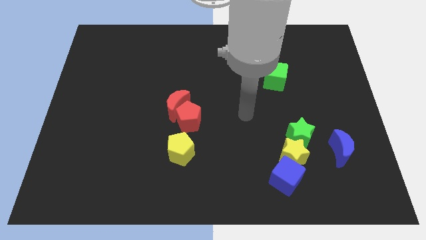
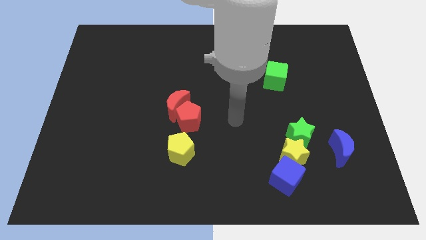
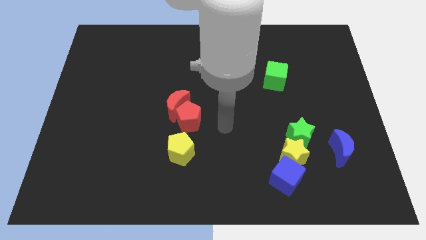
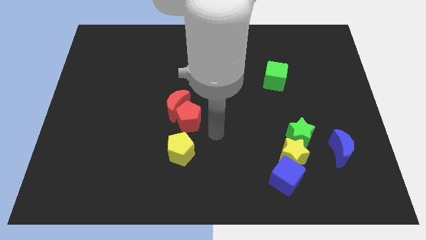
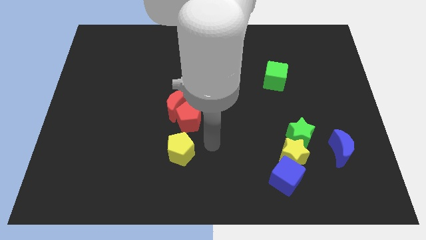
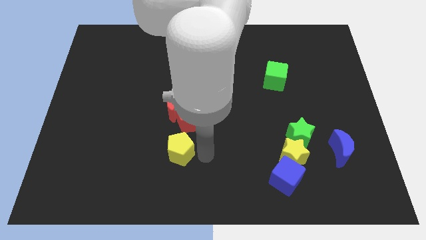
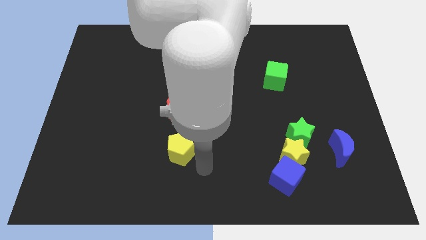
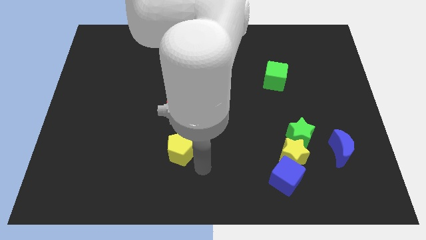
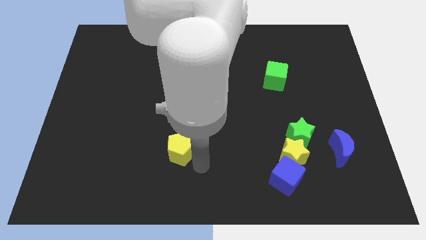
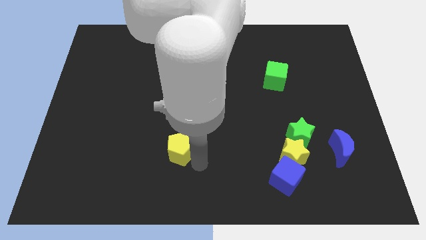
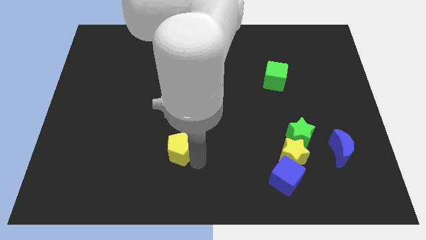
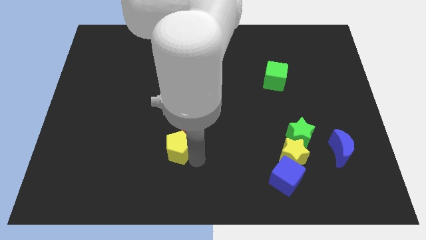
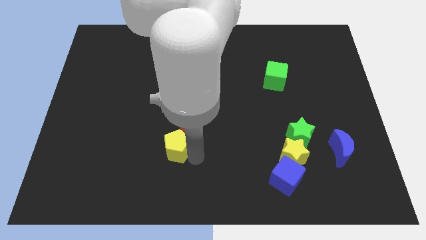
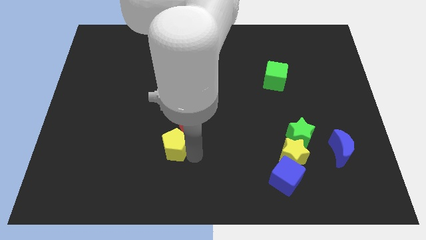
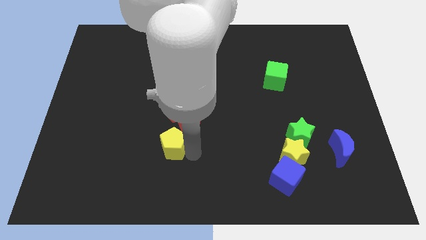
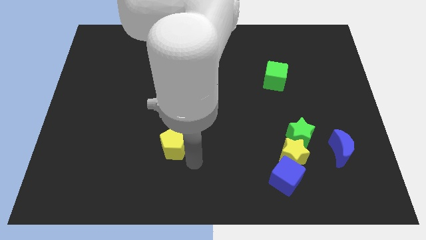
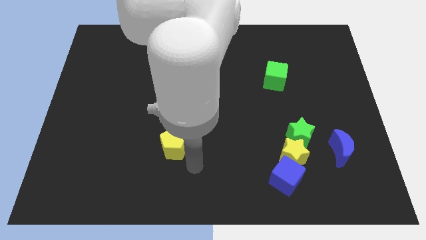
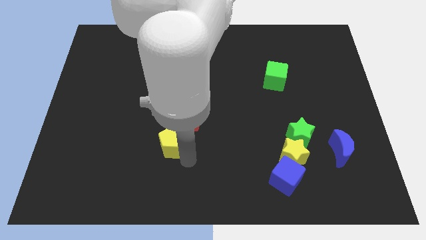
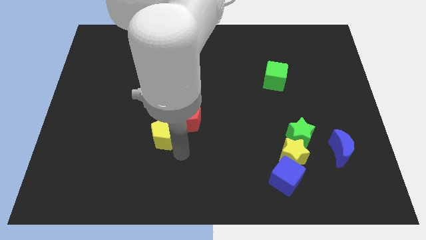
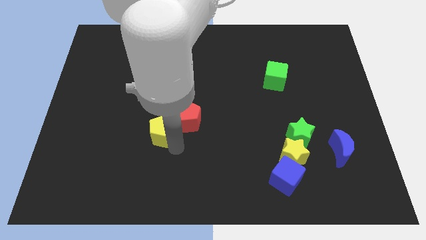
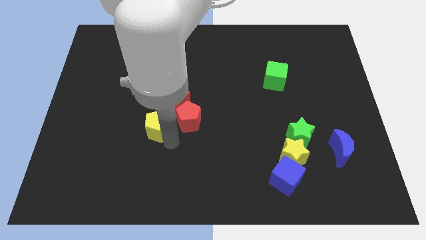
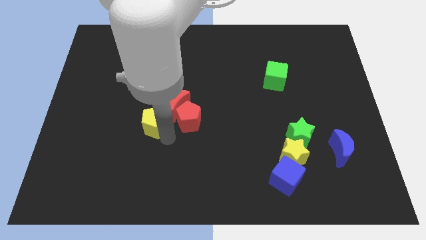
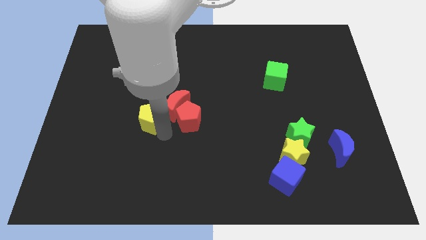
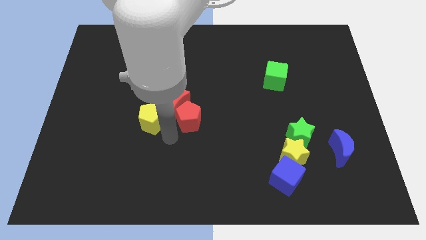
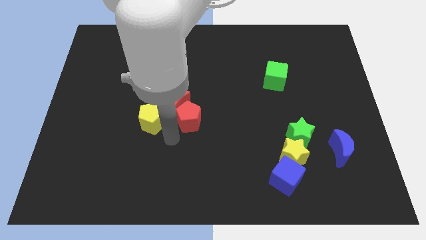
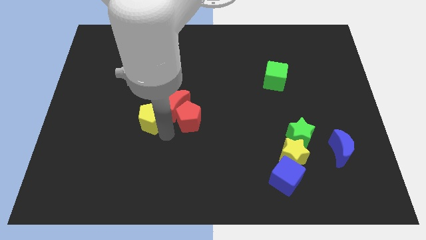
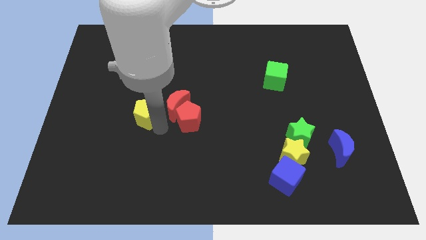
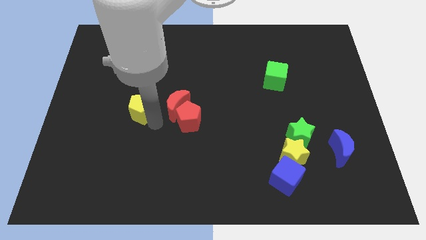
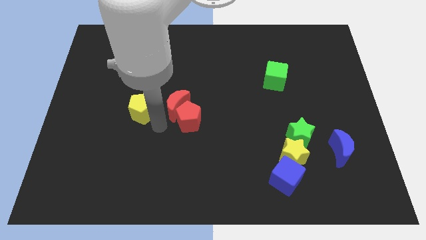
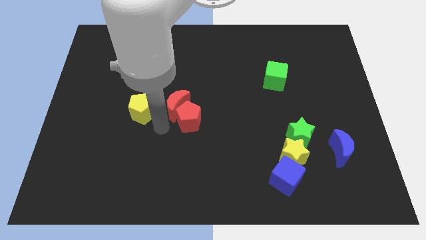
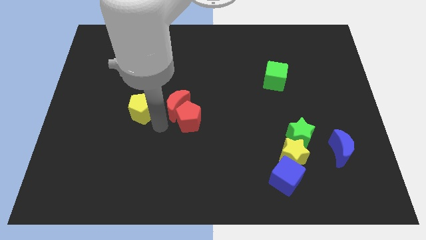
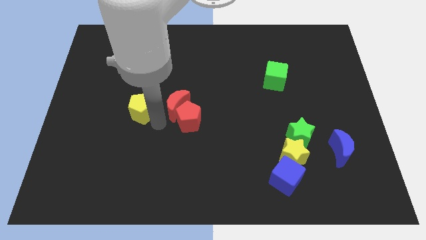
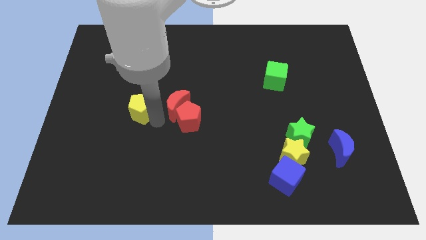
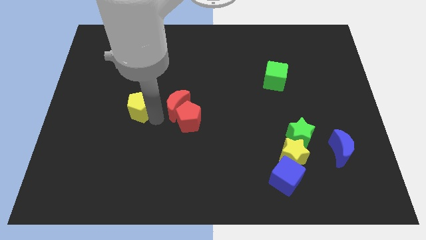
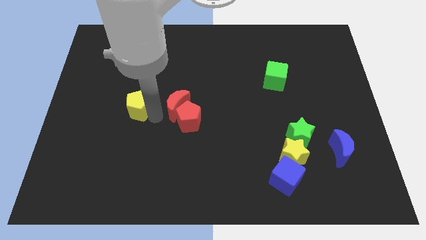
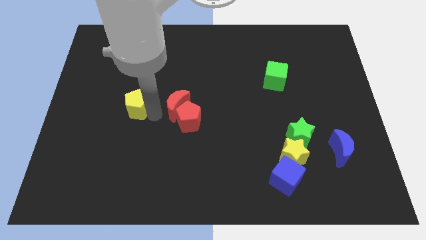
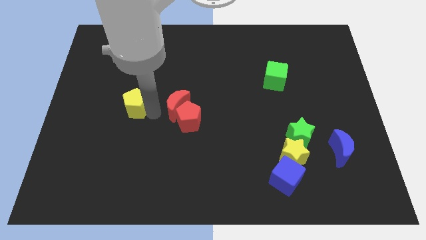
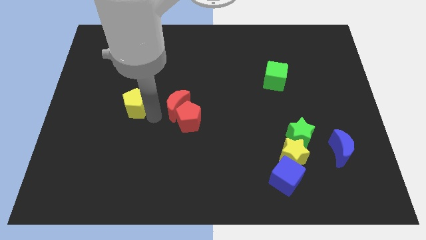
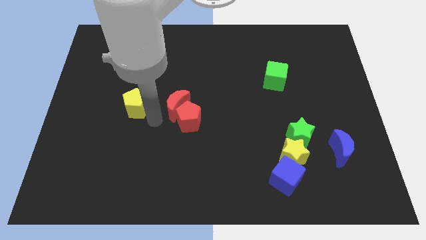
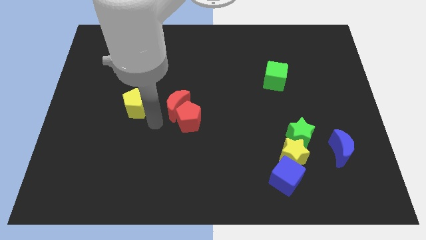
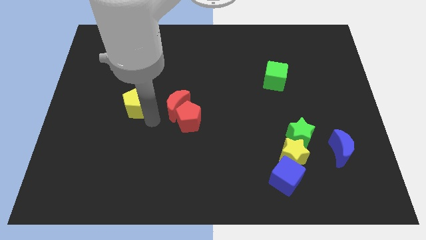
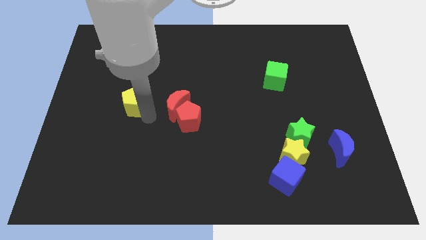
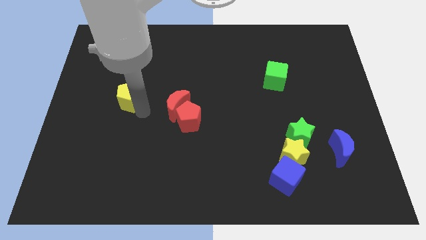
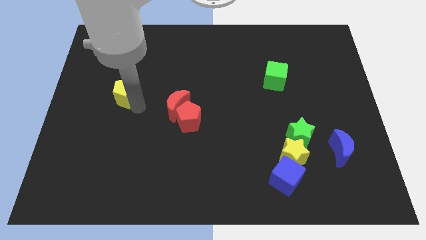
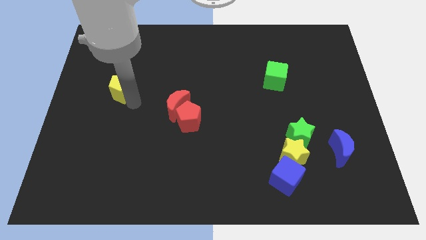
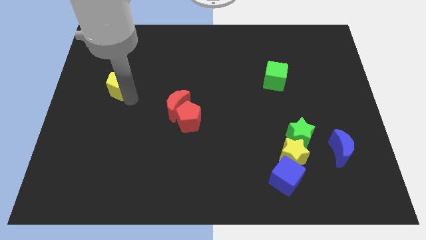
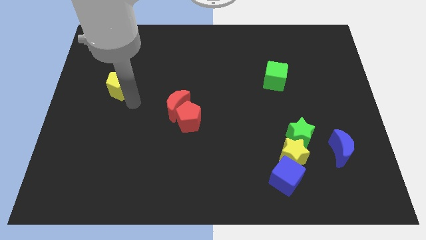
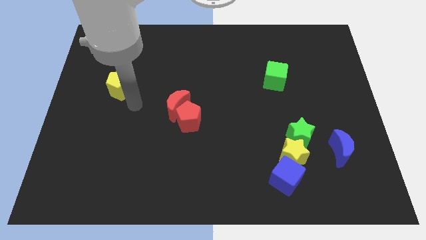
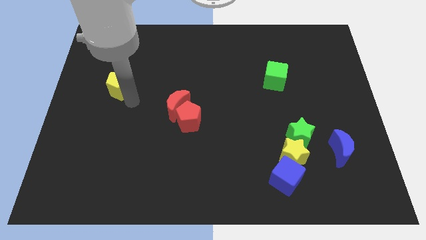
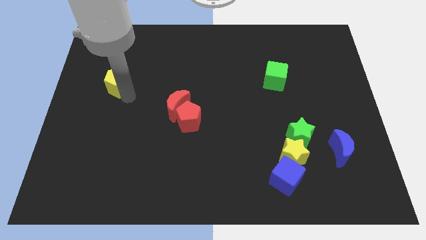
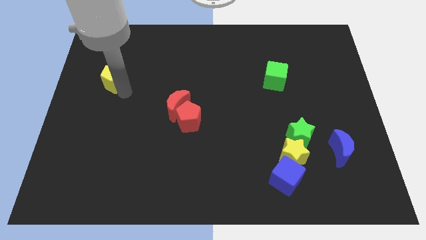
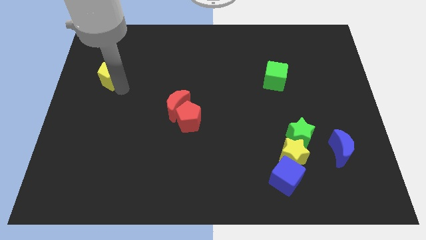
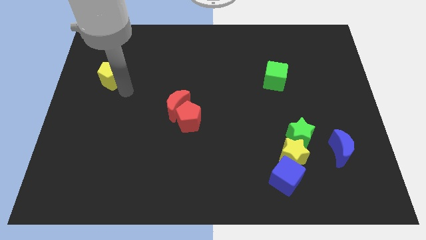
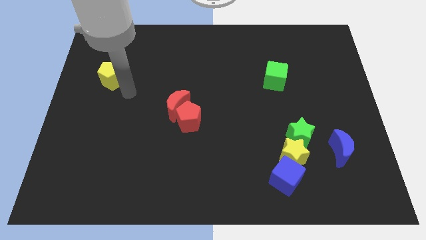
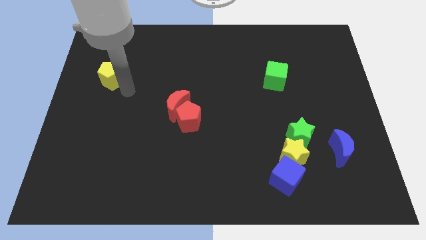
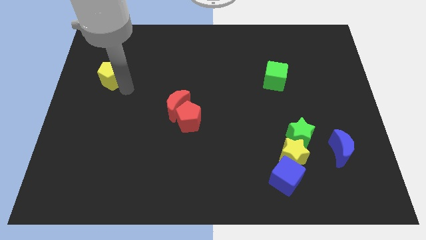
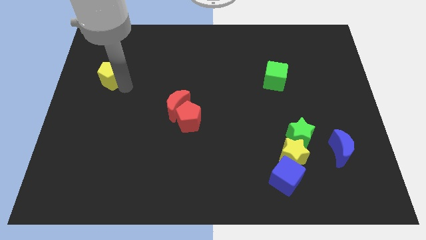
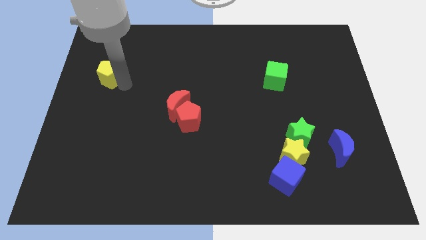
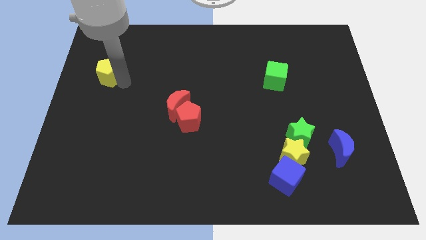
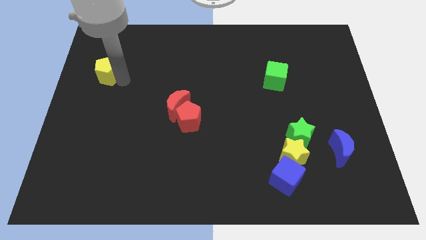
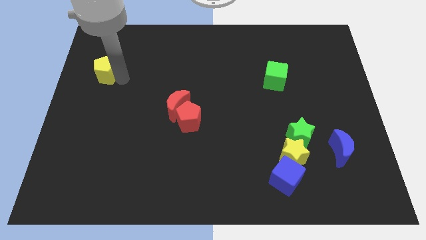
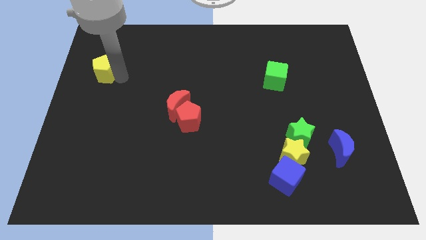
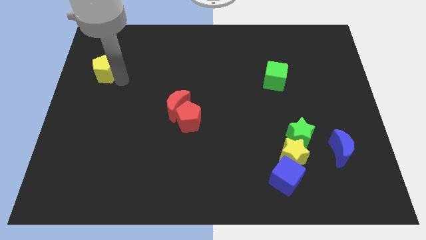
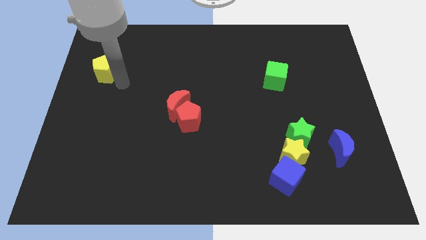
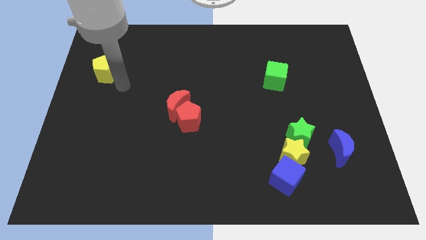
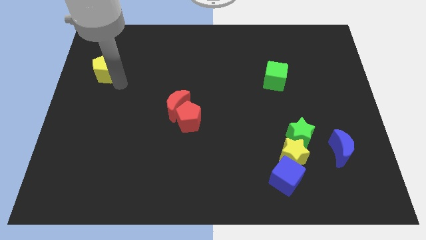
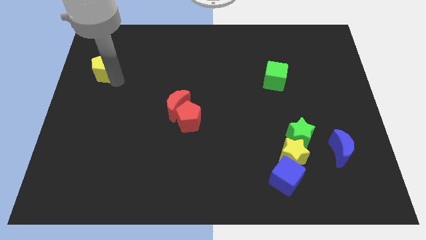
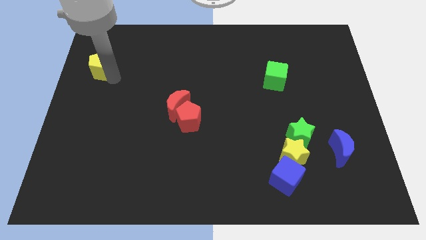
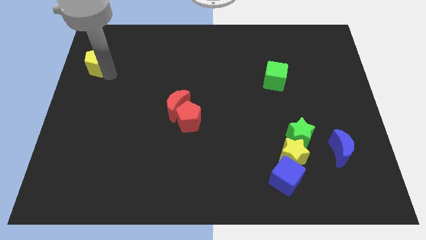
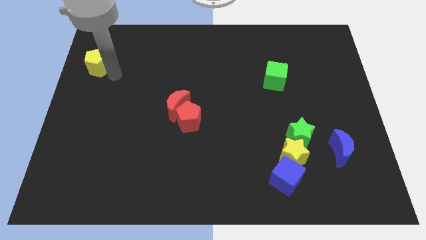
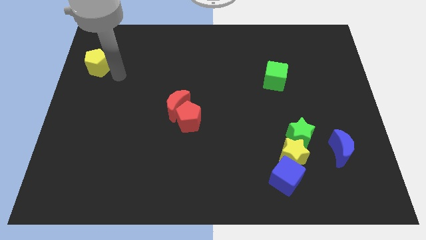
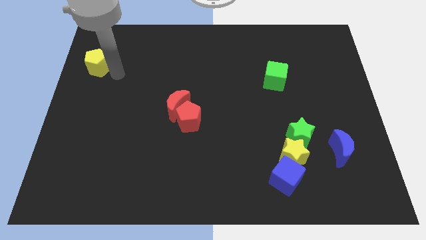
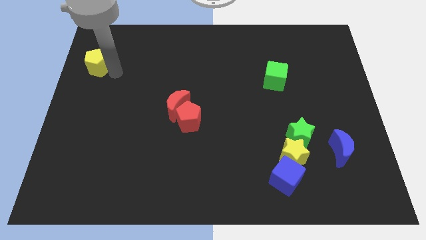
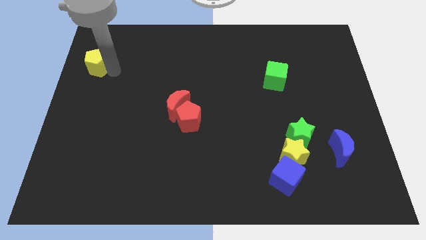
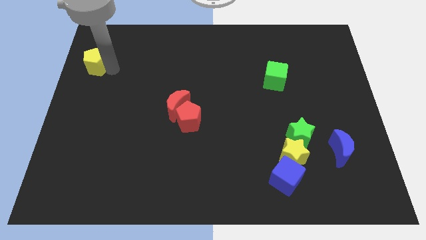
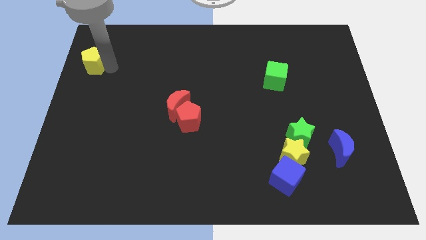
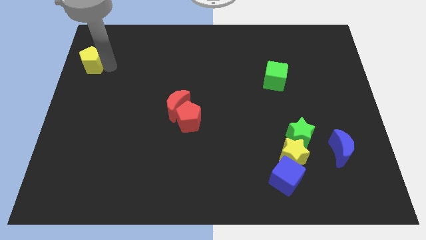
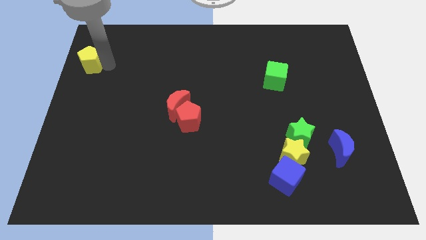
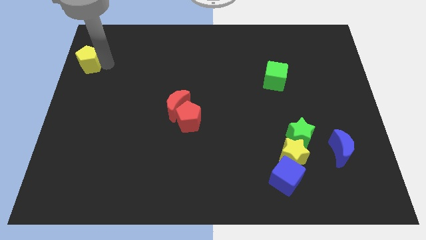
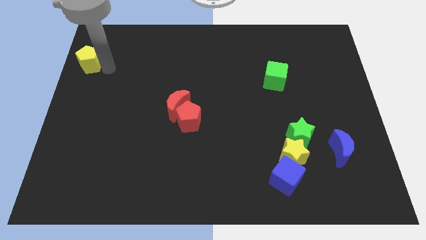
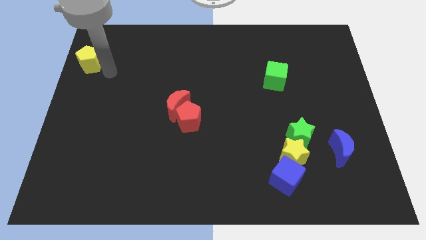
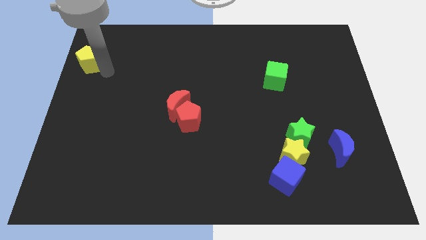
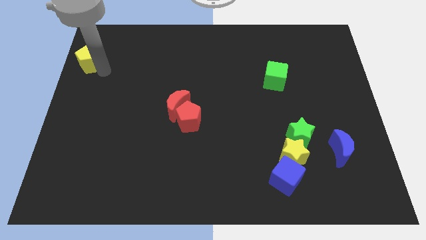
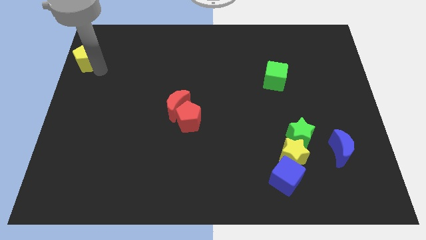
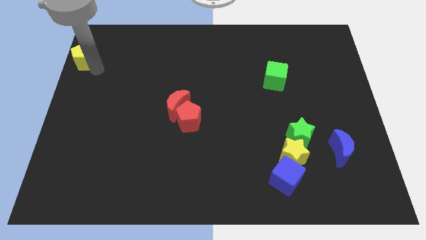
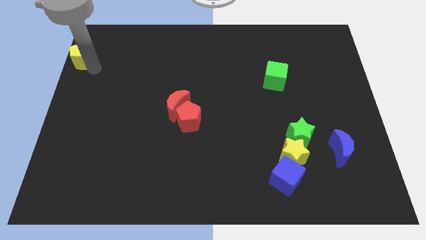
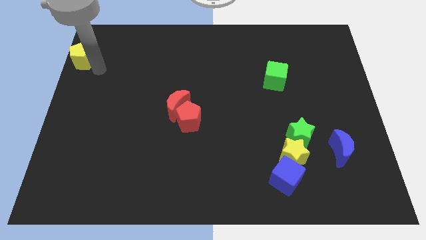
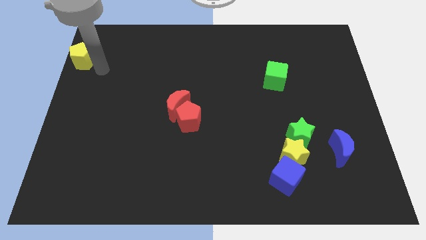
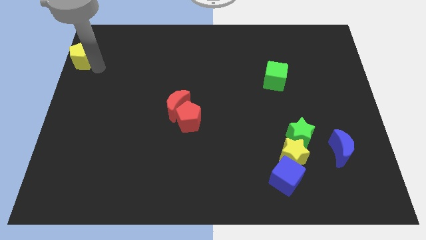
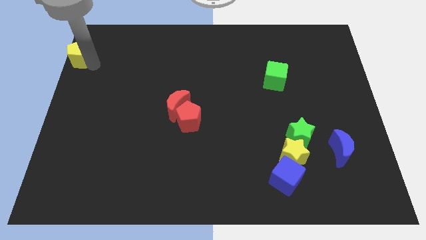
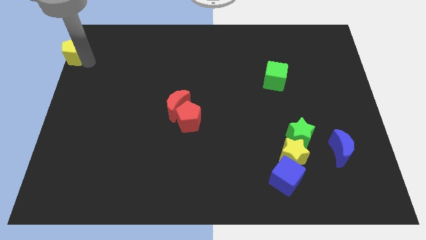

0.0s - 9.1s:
push the yellow pentagon to the upper left corner
